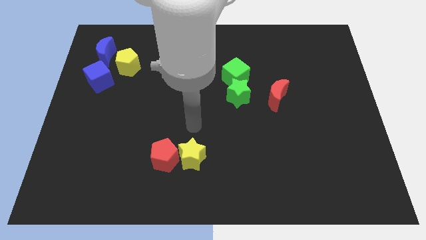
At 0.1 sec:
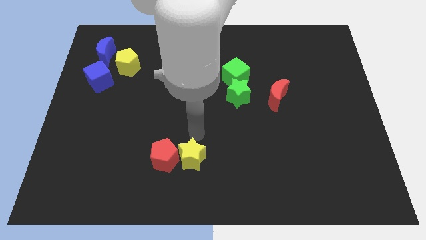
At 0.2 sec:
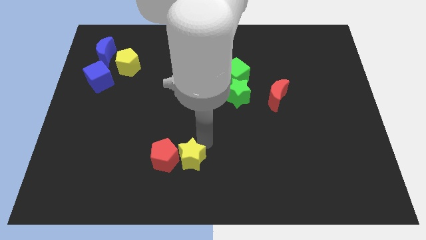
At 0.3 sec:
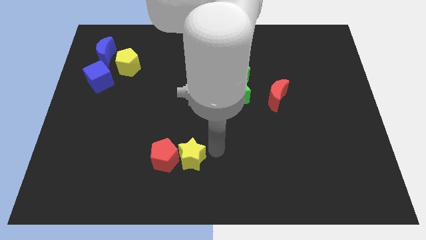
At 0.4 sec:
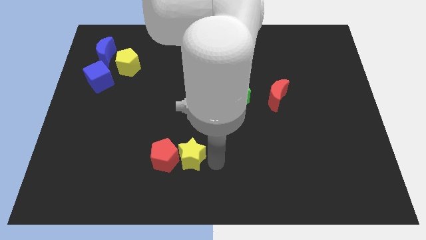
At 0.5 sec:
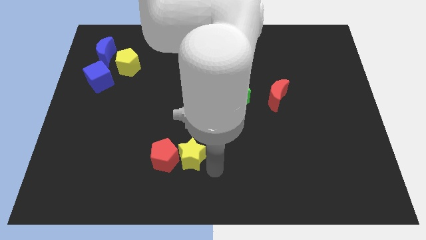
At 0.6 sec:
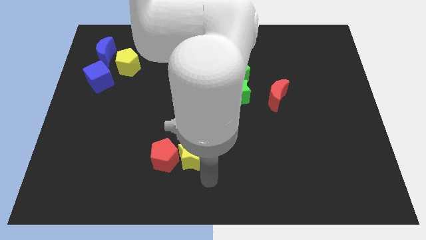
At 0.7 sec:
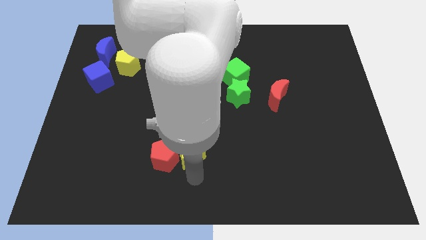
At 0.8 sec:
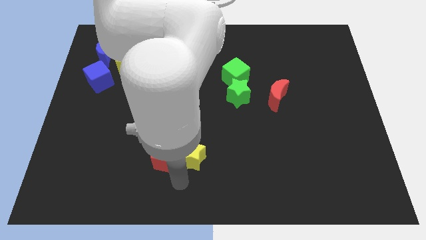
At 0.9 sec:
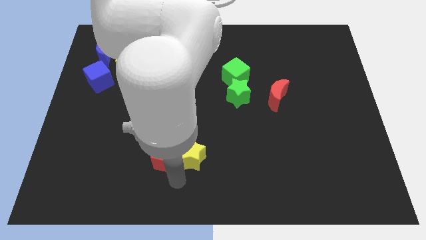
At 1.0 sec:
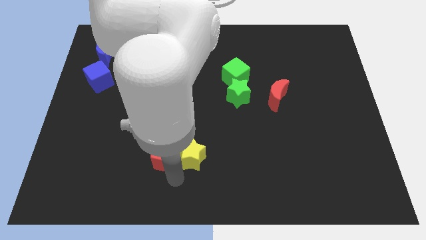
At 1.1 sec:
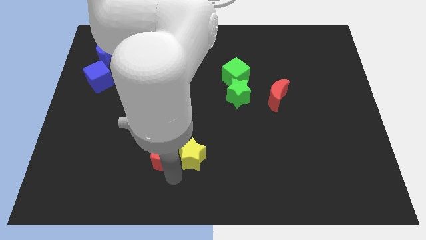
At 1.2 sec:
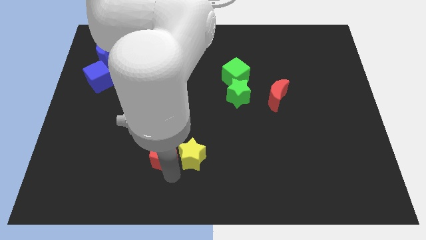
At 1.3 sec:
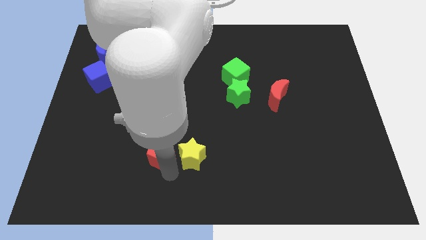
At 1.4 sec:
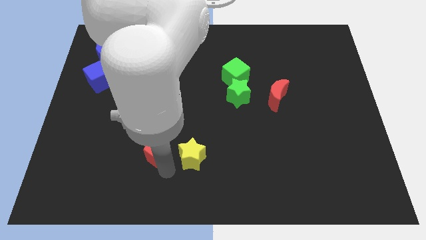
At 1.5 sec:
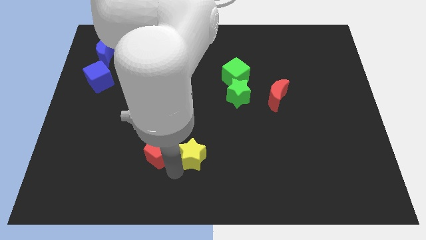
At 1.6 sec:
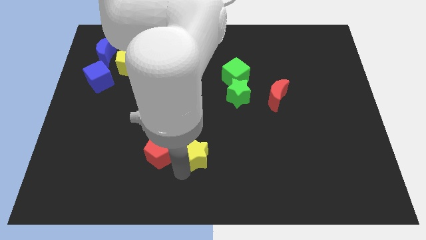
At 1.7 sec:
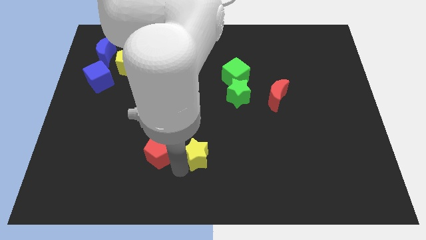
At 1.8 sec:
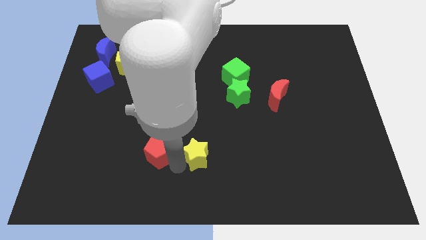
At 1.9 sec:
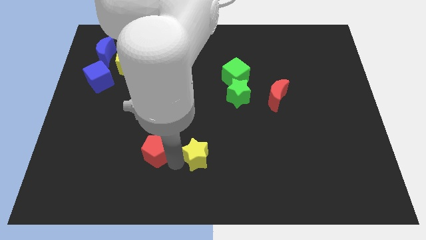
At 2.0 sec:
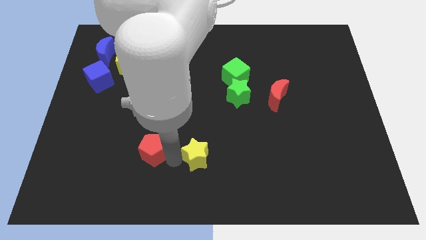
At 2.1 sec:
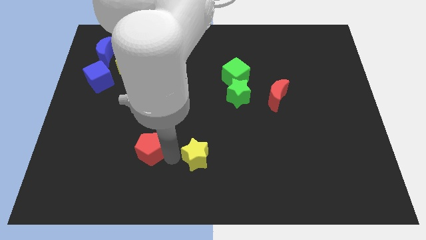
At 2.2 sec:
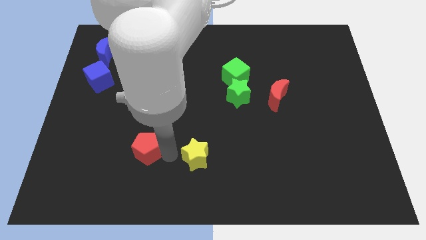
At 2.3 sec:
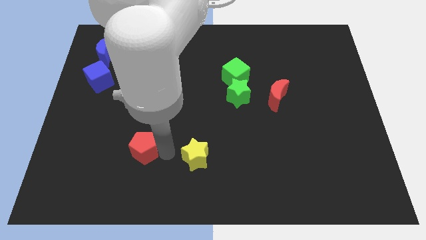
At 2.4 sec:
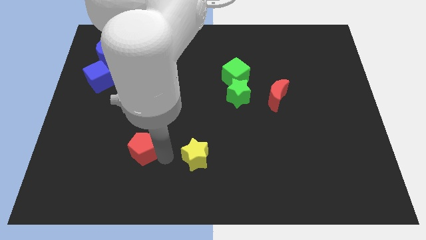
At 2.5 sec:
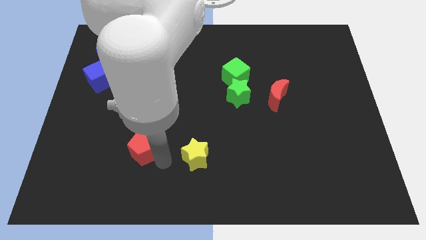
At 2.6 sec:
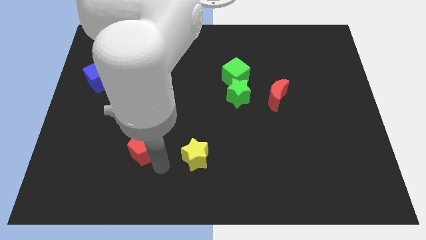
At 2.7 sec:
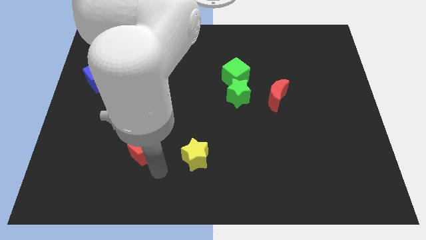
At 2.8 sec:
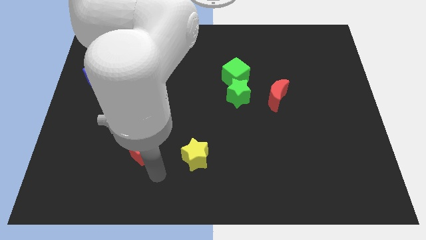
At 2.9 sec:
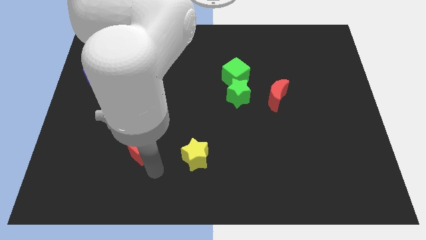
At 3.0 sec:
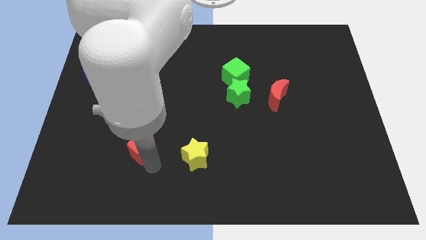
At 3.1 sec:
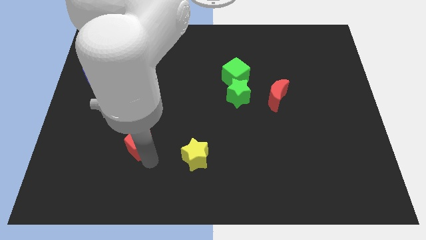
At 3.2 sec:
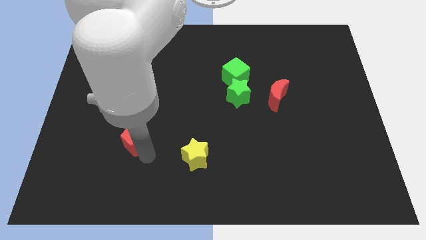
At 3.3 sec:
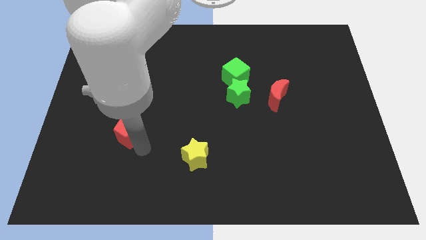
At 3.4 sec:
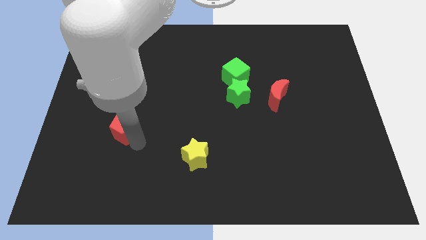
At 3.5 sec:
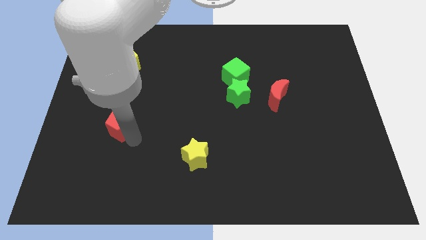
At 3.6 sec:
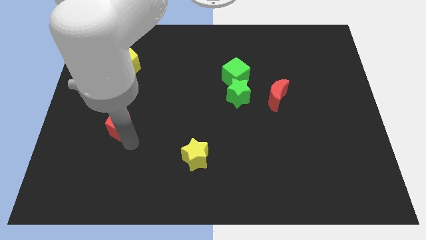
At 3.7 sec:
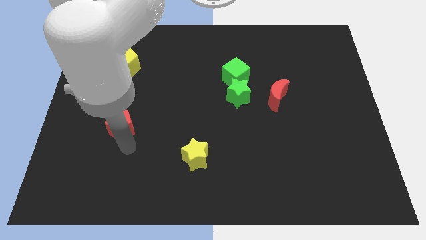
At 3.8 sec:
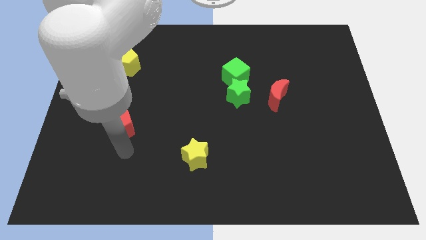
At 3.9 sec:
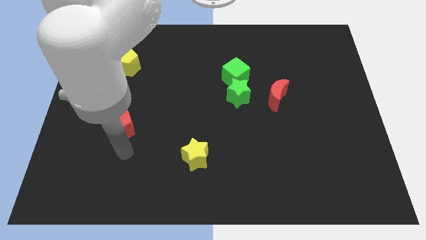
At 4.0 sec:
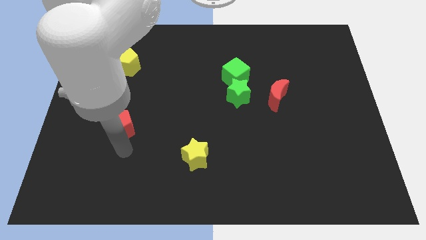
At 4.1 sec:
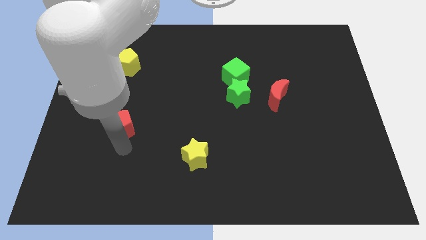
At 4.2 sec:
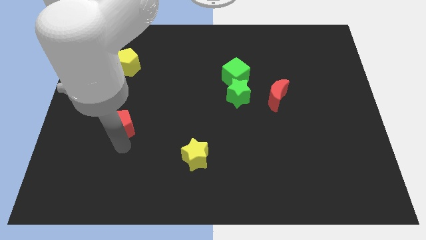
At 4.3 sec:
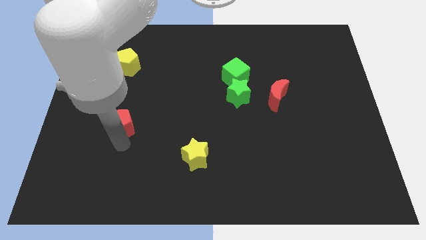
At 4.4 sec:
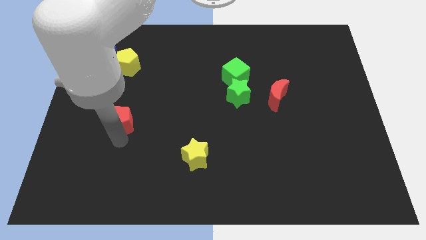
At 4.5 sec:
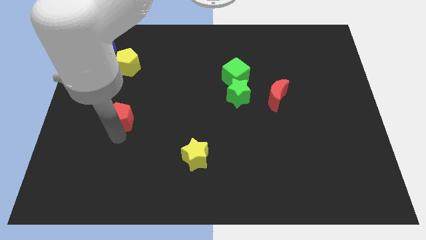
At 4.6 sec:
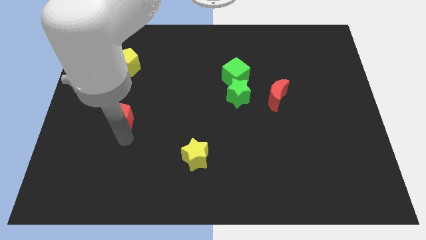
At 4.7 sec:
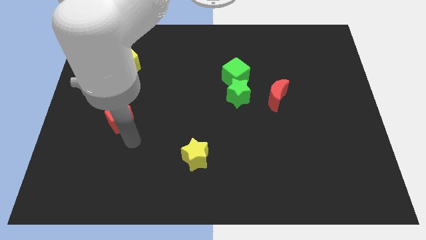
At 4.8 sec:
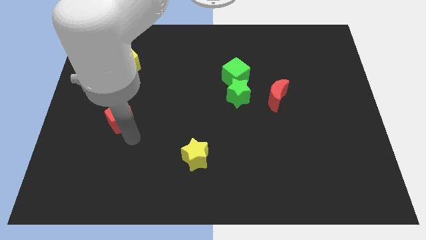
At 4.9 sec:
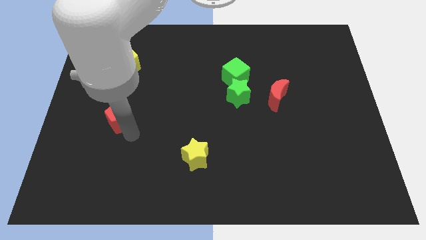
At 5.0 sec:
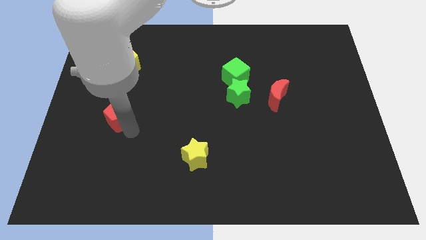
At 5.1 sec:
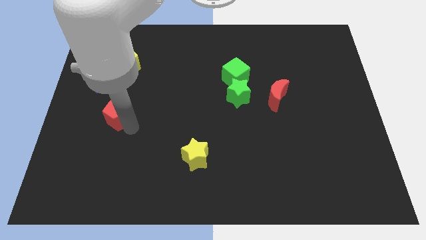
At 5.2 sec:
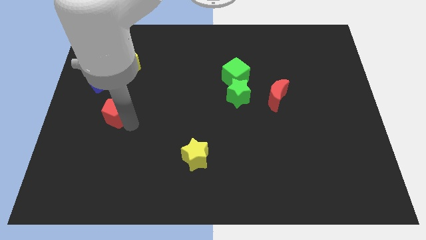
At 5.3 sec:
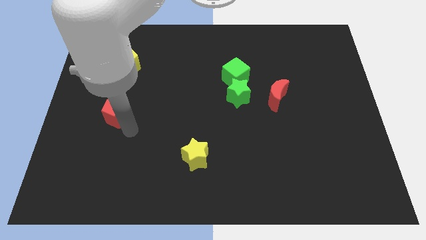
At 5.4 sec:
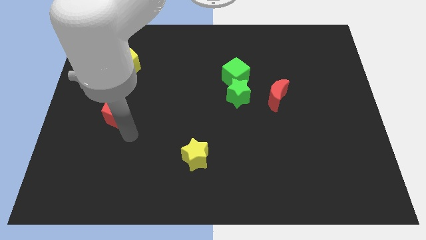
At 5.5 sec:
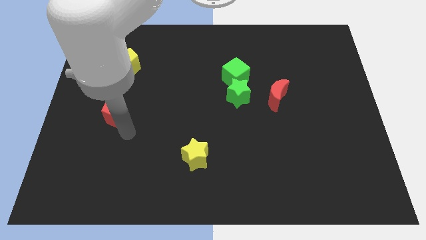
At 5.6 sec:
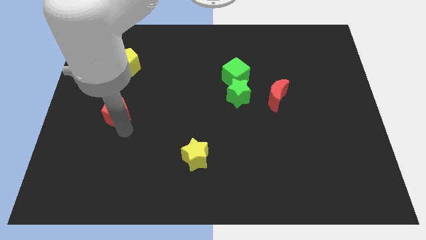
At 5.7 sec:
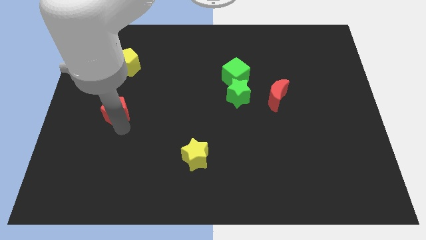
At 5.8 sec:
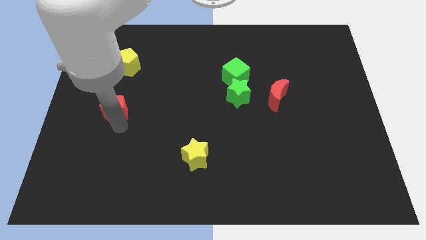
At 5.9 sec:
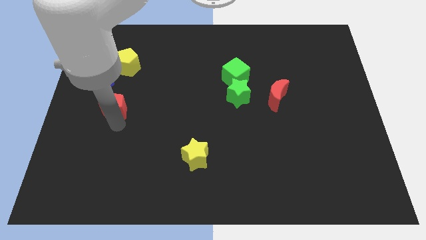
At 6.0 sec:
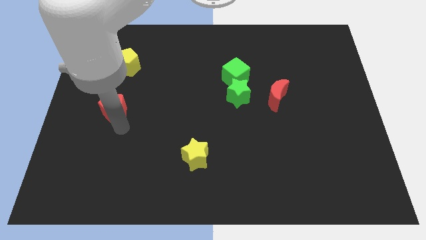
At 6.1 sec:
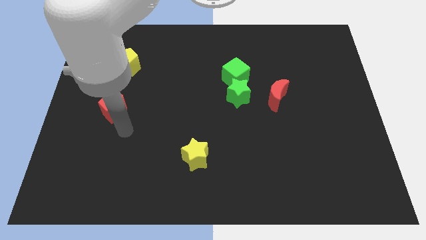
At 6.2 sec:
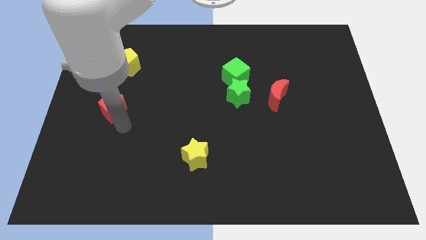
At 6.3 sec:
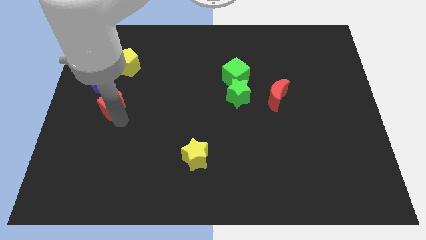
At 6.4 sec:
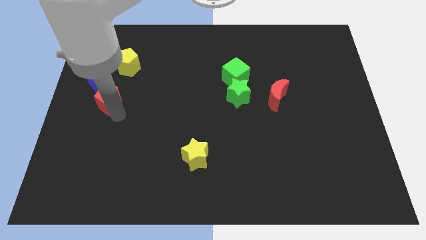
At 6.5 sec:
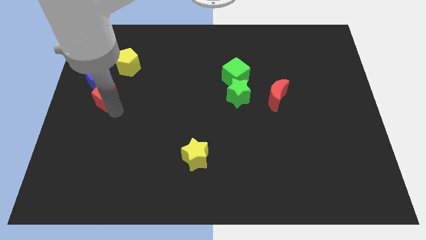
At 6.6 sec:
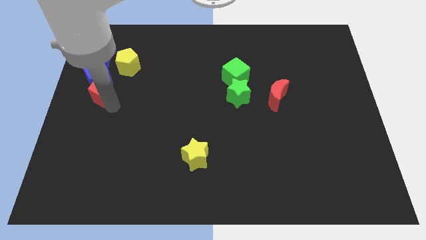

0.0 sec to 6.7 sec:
push the red pentagon next to the blue cube
